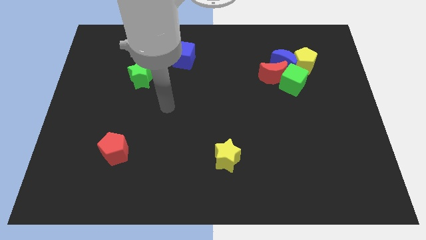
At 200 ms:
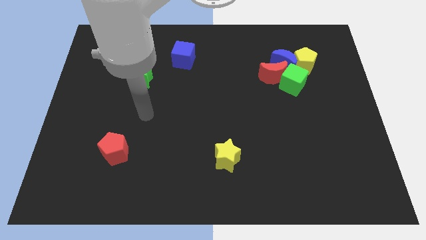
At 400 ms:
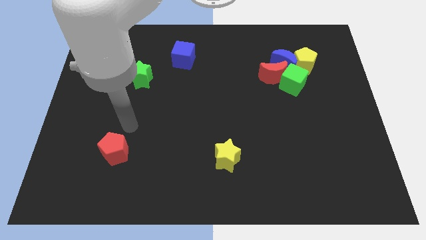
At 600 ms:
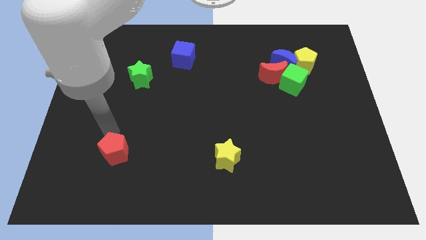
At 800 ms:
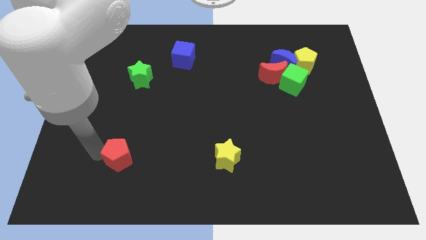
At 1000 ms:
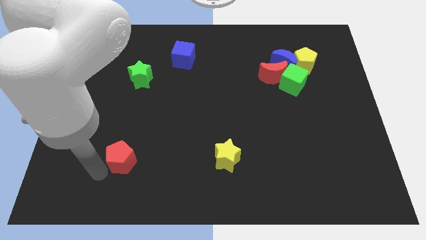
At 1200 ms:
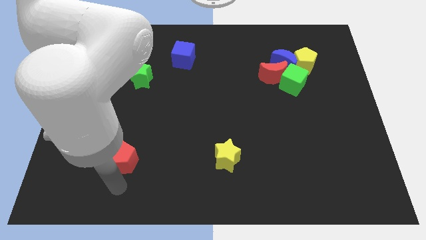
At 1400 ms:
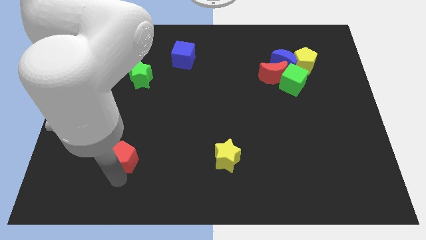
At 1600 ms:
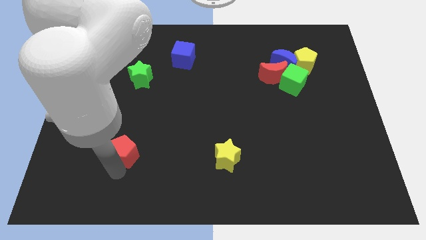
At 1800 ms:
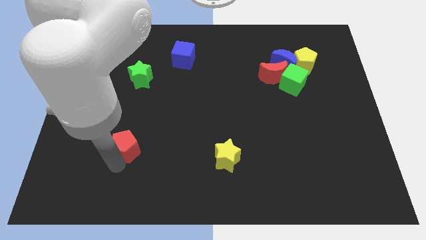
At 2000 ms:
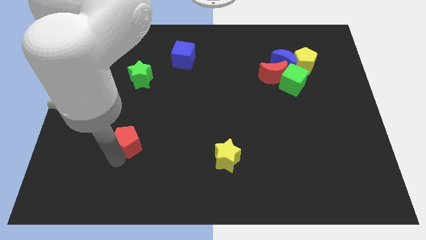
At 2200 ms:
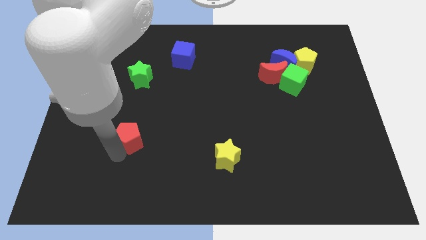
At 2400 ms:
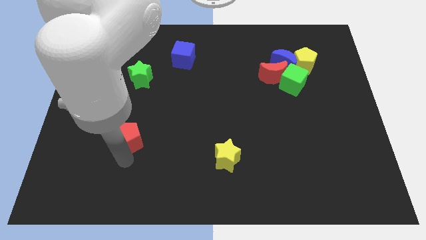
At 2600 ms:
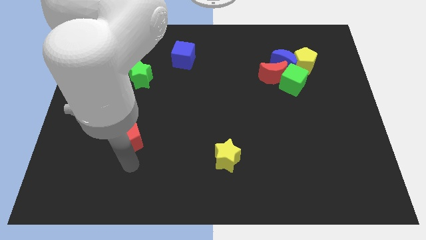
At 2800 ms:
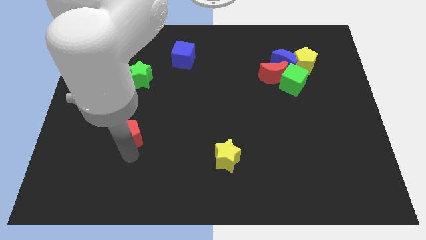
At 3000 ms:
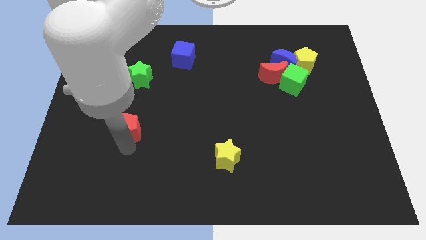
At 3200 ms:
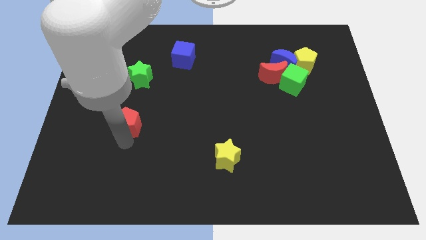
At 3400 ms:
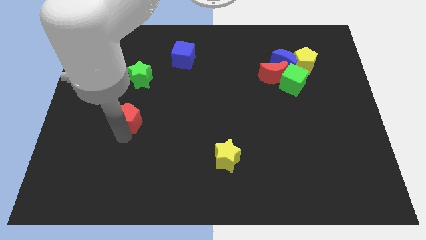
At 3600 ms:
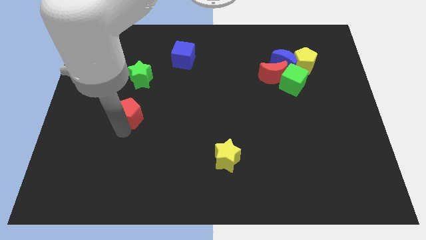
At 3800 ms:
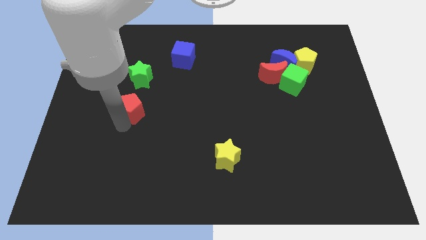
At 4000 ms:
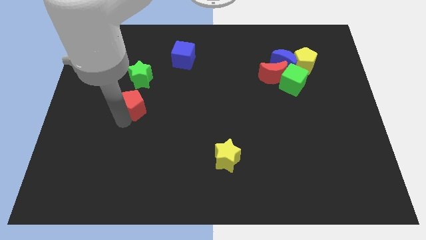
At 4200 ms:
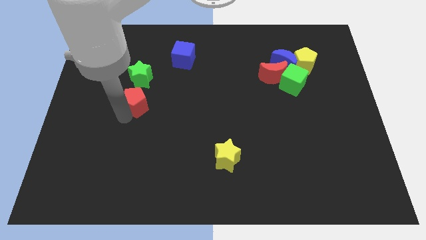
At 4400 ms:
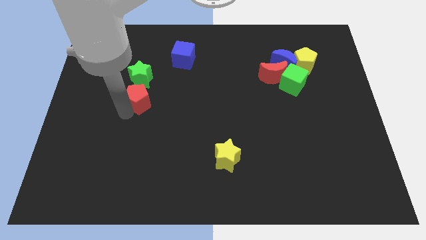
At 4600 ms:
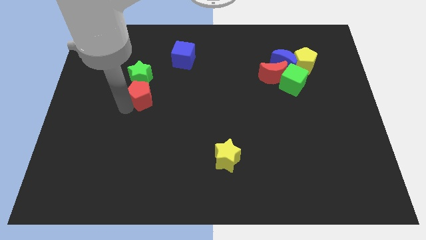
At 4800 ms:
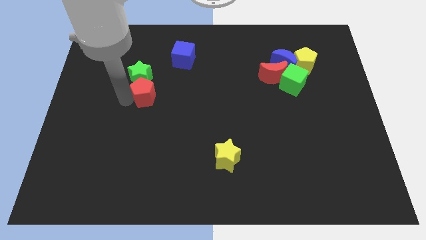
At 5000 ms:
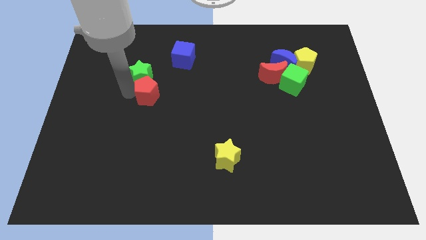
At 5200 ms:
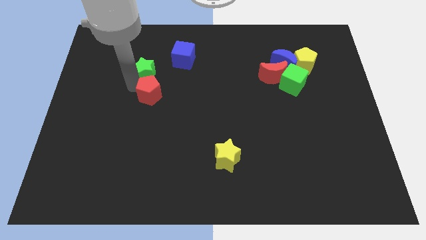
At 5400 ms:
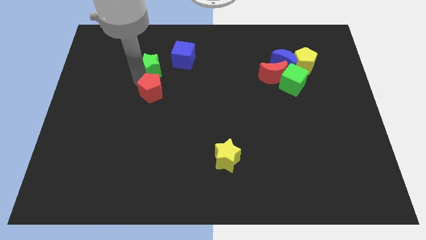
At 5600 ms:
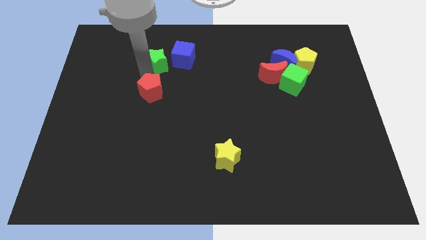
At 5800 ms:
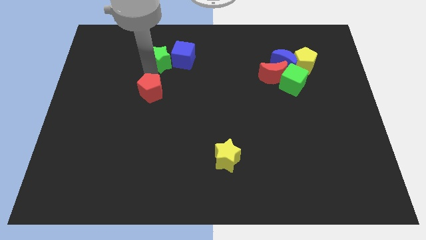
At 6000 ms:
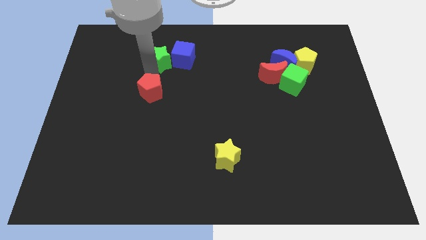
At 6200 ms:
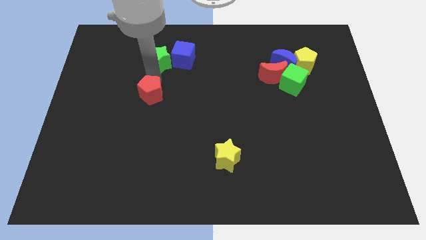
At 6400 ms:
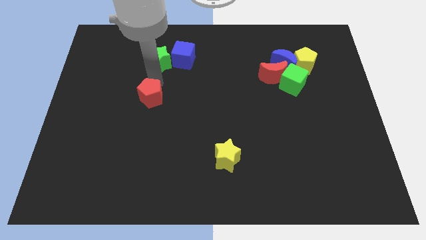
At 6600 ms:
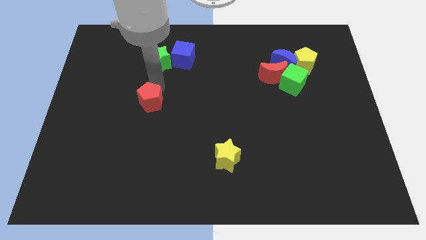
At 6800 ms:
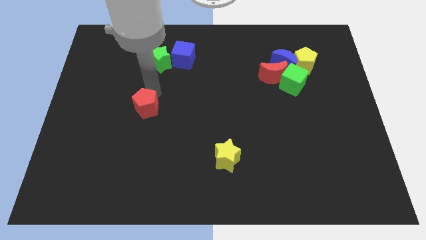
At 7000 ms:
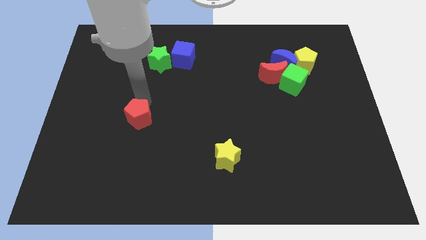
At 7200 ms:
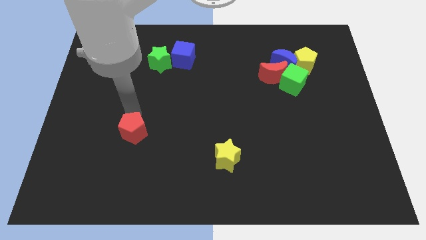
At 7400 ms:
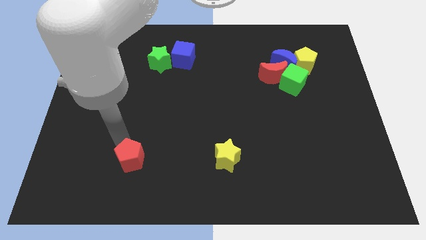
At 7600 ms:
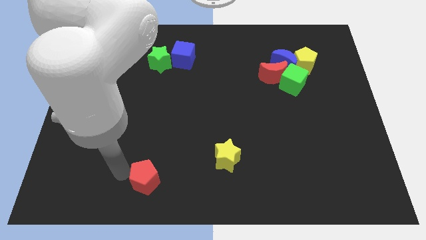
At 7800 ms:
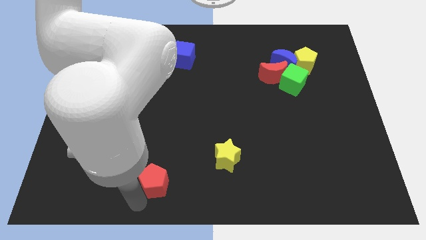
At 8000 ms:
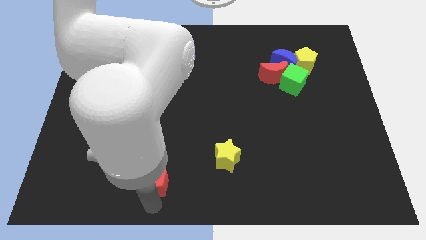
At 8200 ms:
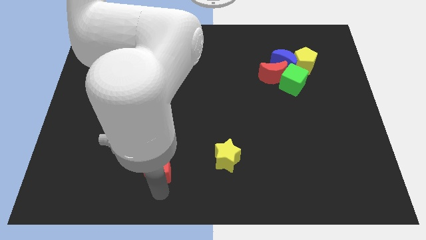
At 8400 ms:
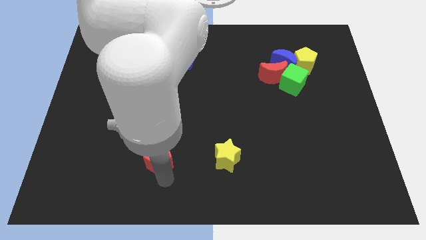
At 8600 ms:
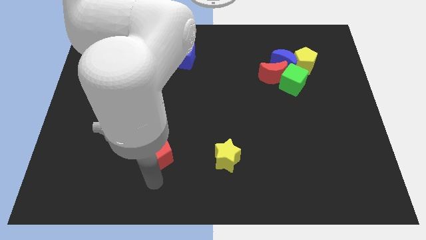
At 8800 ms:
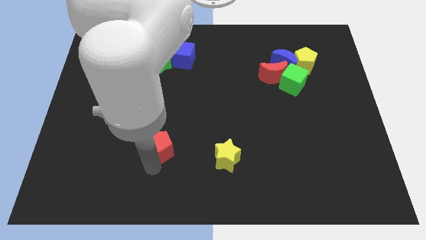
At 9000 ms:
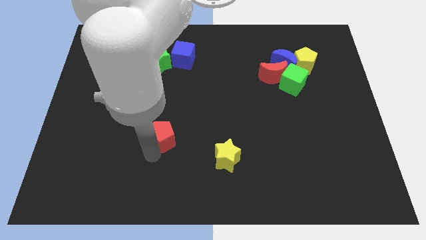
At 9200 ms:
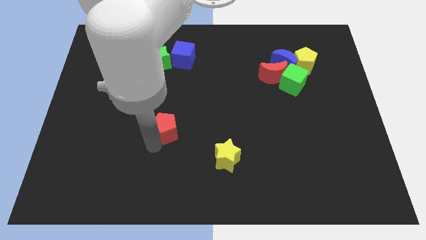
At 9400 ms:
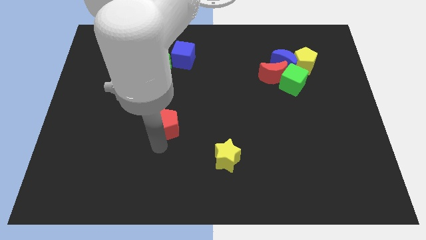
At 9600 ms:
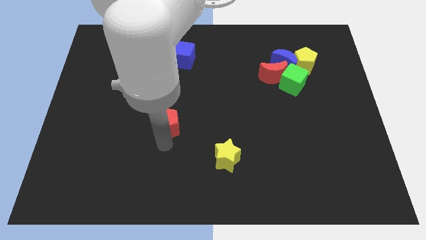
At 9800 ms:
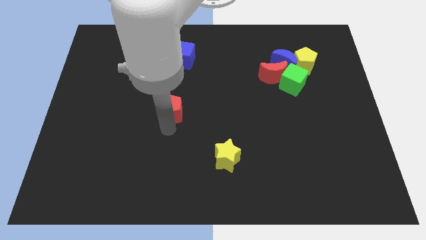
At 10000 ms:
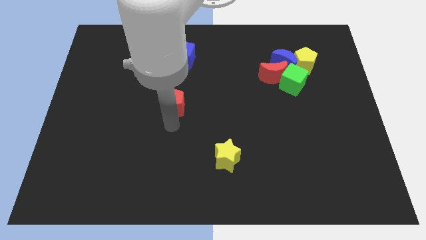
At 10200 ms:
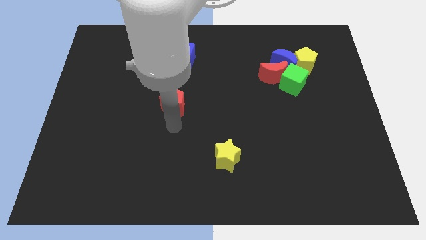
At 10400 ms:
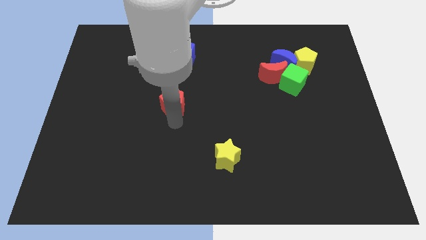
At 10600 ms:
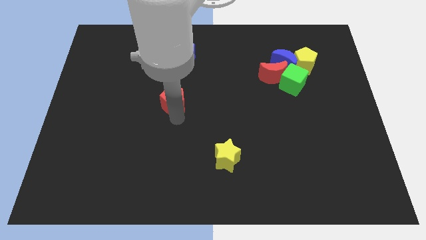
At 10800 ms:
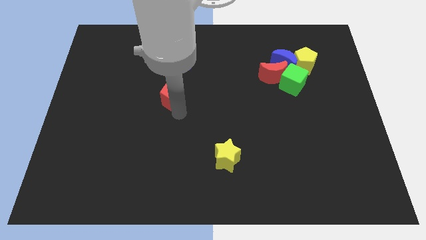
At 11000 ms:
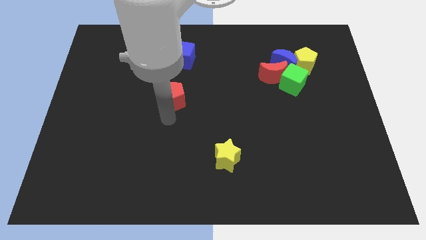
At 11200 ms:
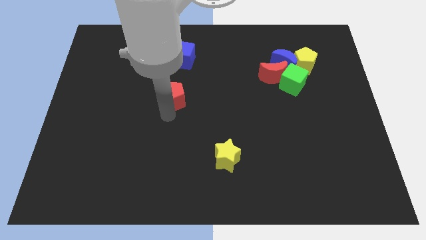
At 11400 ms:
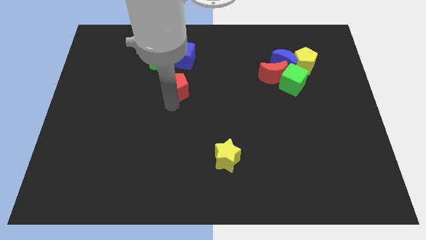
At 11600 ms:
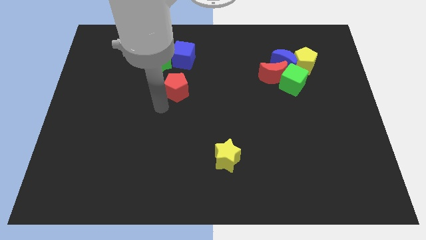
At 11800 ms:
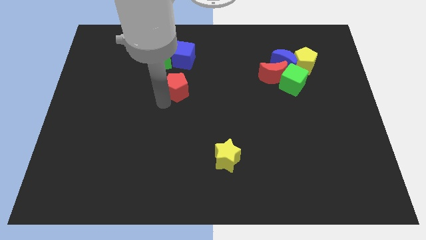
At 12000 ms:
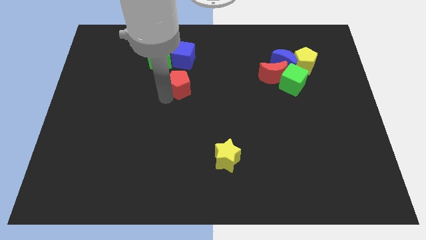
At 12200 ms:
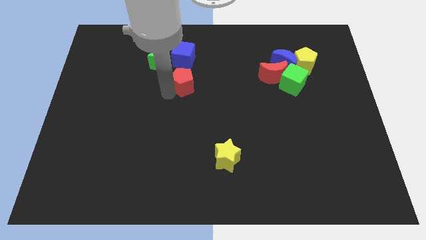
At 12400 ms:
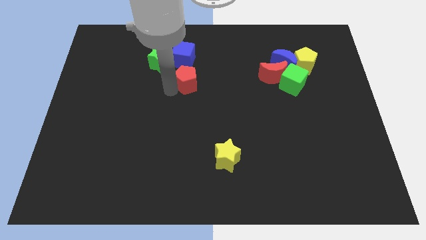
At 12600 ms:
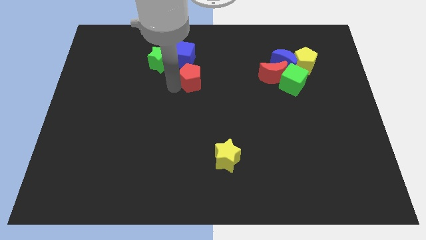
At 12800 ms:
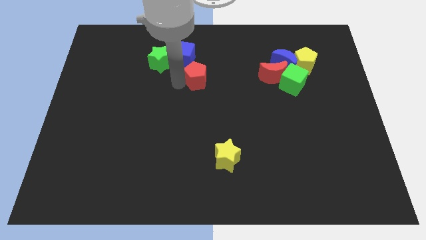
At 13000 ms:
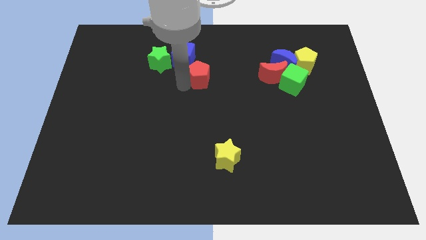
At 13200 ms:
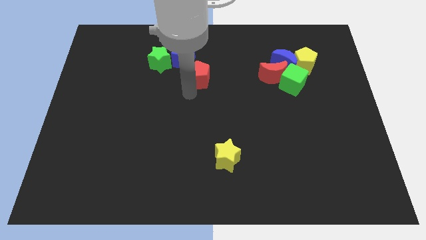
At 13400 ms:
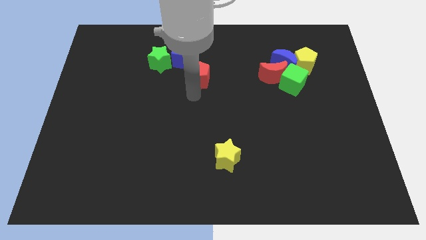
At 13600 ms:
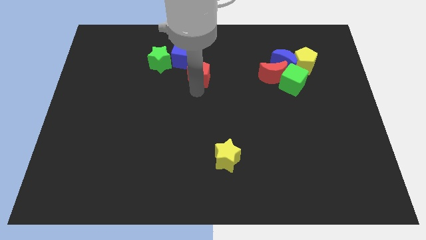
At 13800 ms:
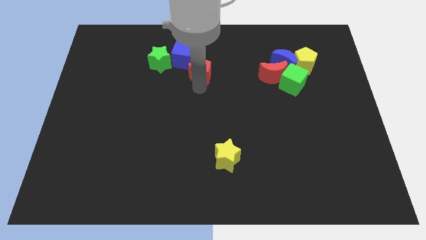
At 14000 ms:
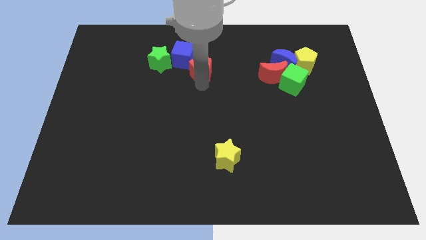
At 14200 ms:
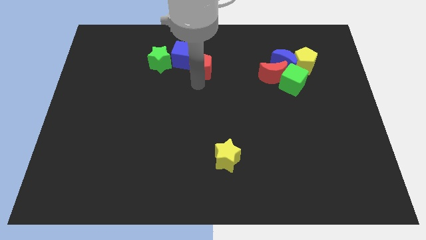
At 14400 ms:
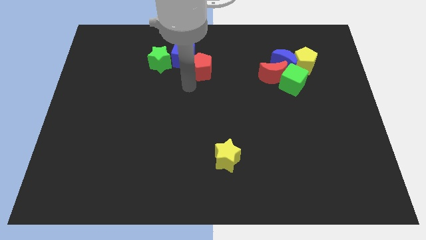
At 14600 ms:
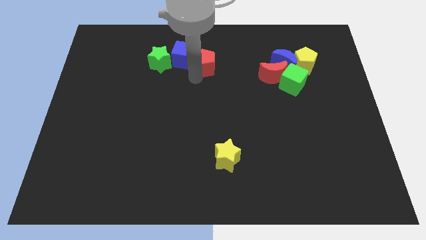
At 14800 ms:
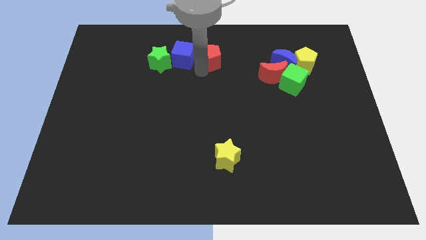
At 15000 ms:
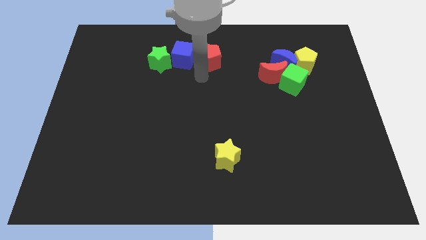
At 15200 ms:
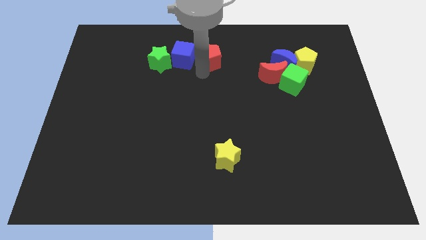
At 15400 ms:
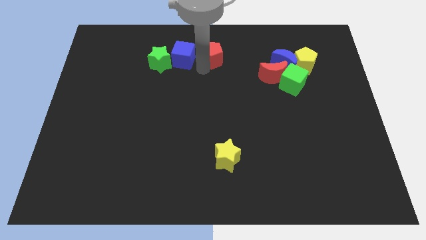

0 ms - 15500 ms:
move the red pentagon to the top
